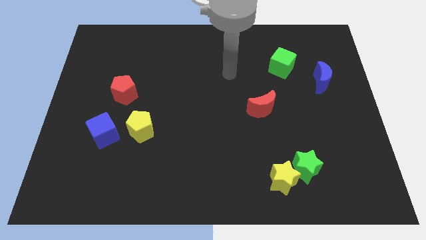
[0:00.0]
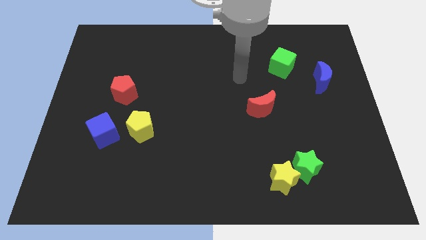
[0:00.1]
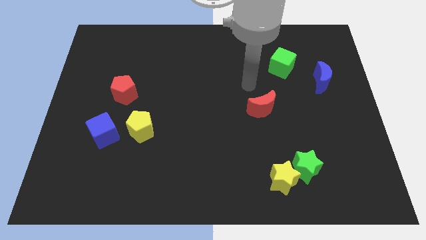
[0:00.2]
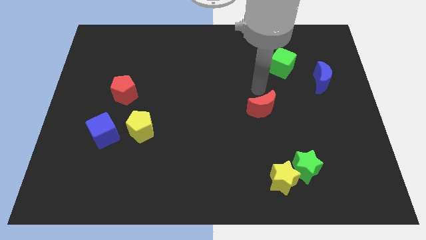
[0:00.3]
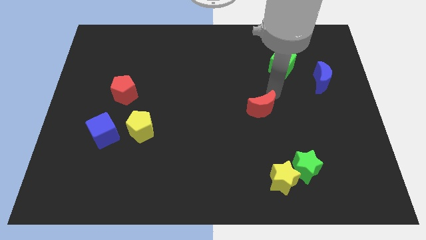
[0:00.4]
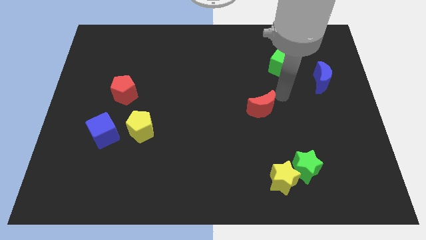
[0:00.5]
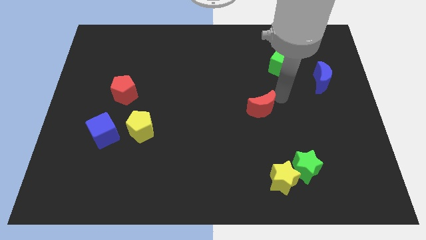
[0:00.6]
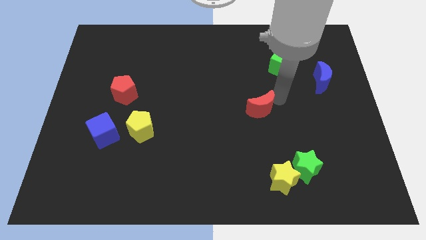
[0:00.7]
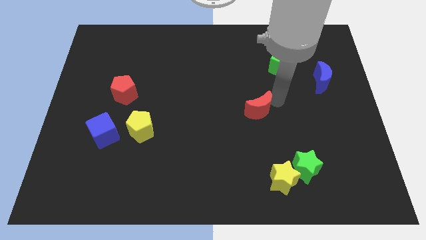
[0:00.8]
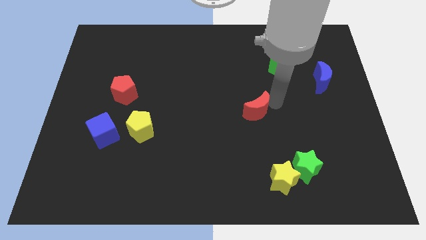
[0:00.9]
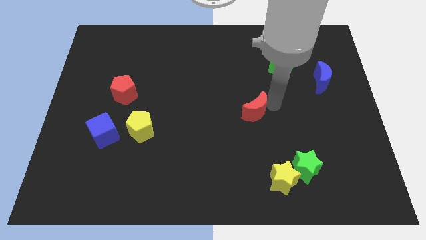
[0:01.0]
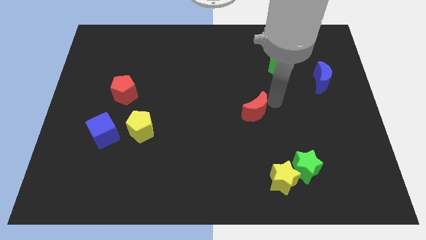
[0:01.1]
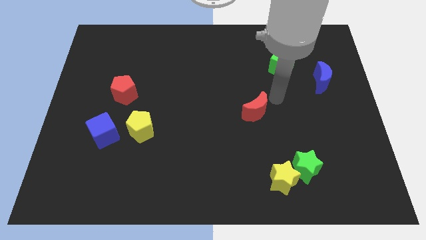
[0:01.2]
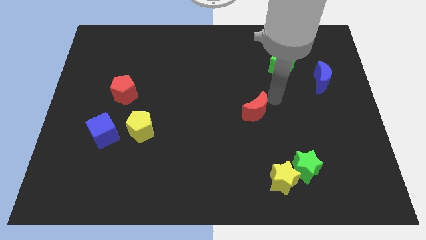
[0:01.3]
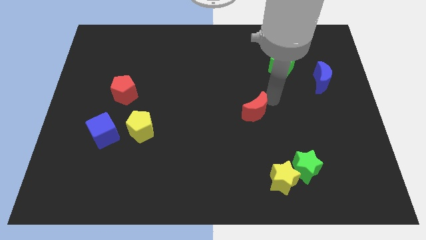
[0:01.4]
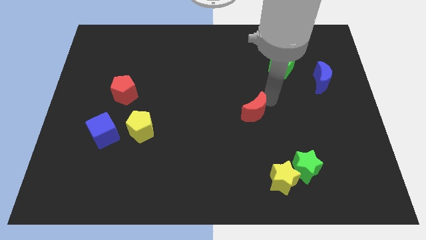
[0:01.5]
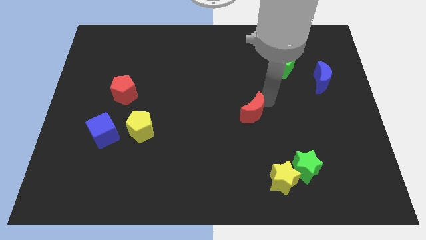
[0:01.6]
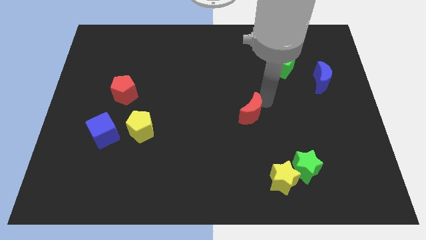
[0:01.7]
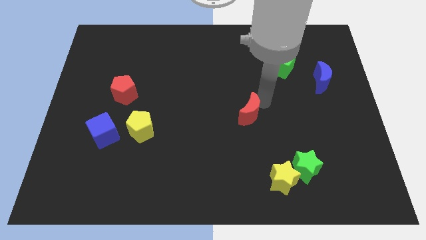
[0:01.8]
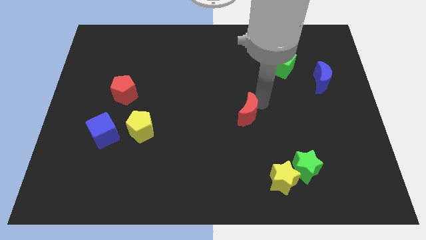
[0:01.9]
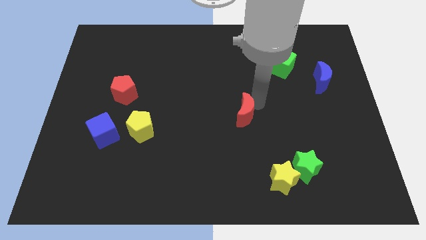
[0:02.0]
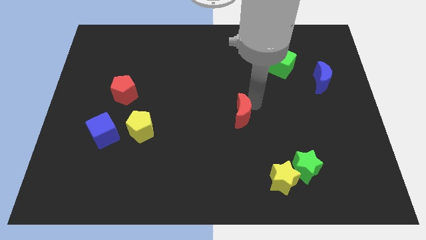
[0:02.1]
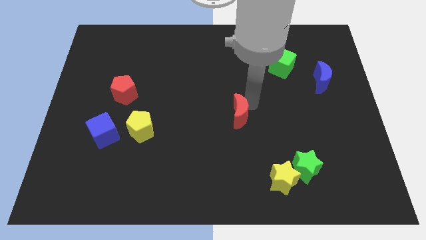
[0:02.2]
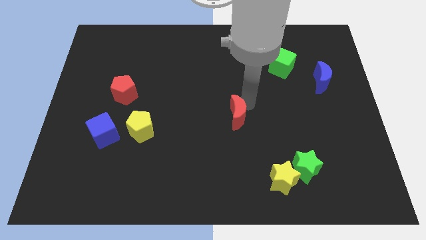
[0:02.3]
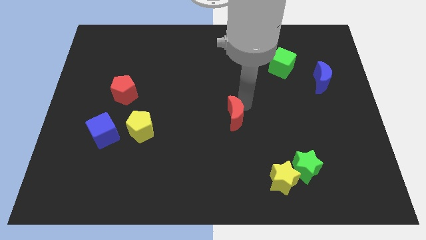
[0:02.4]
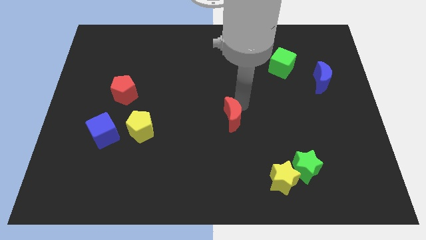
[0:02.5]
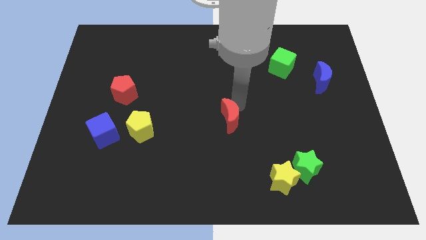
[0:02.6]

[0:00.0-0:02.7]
push the red moon somewhat downwards and then to the left

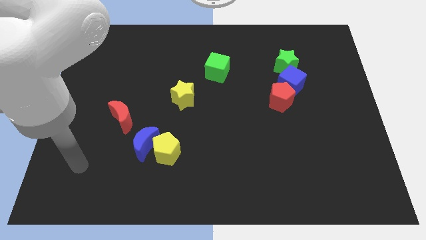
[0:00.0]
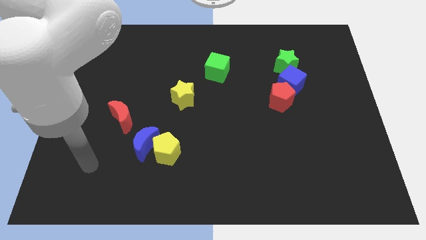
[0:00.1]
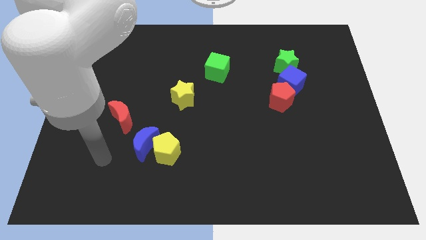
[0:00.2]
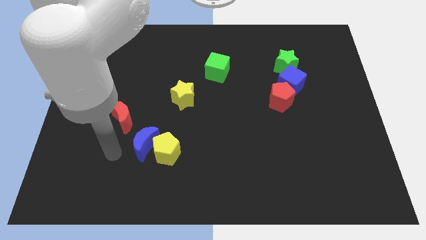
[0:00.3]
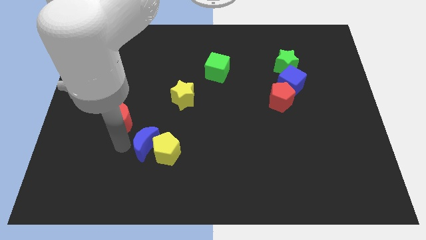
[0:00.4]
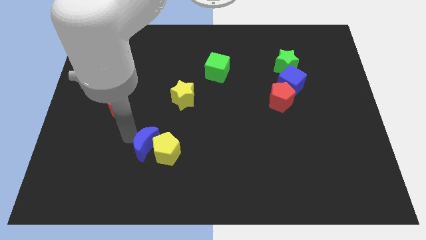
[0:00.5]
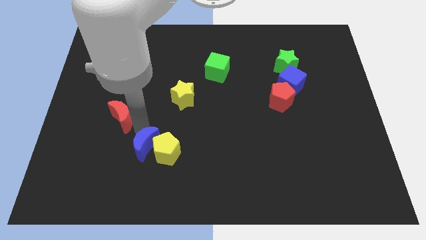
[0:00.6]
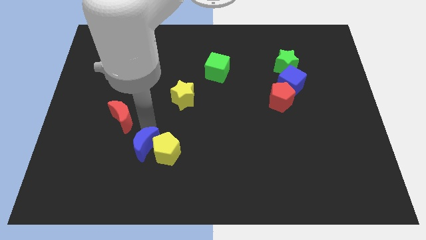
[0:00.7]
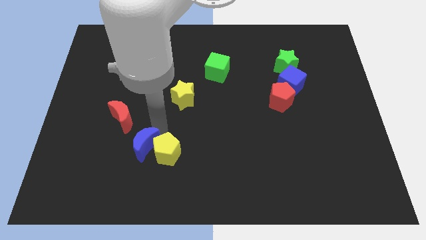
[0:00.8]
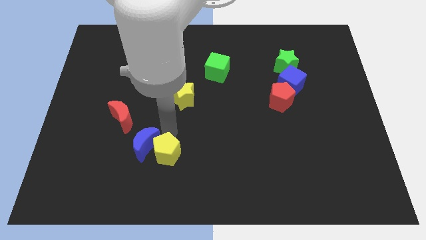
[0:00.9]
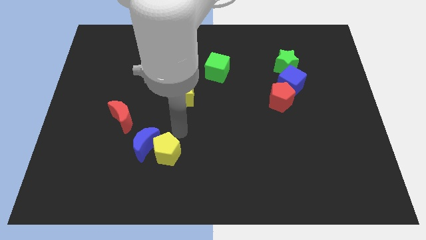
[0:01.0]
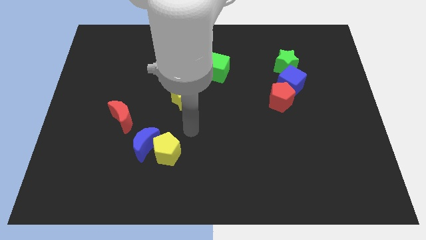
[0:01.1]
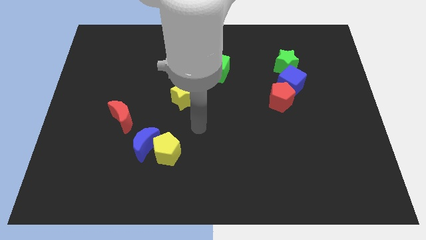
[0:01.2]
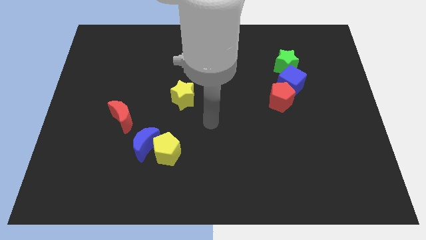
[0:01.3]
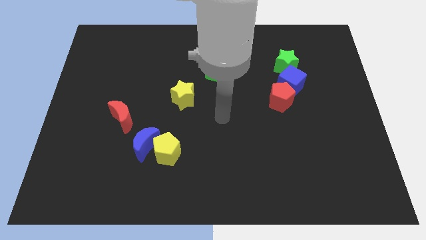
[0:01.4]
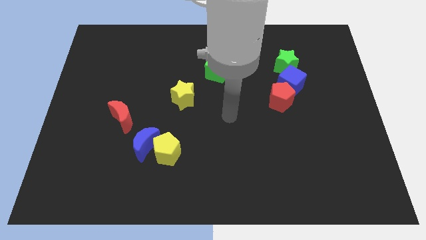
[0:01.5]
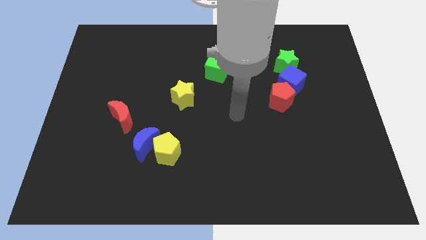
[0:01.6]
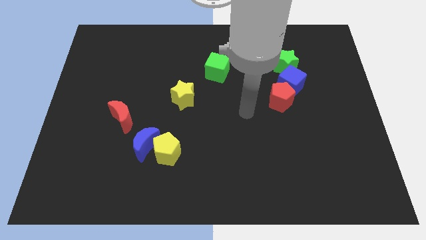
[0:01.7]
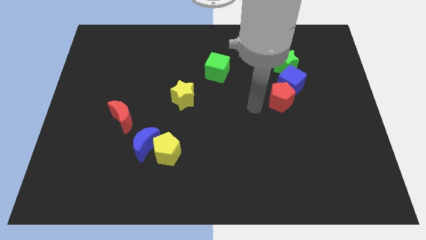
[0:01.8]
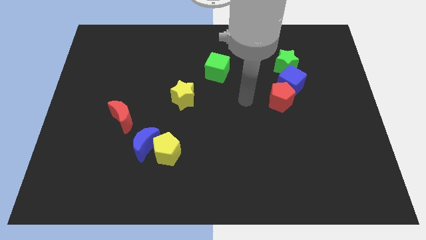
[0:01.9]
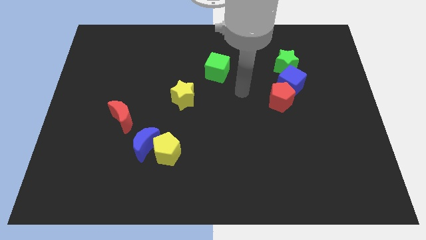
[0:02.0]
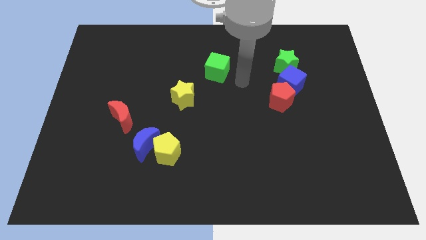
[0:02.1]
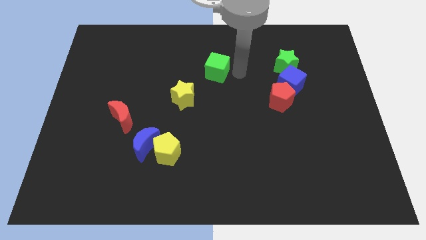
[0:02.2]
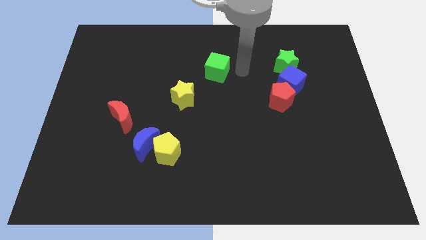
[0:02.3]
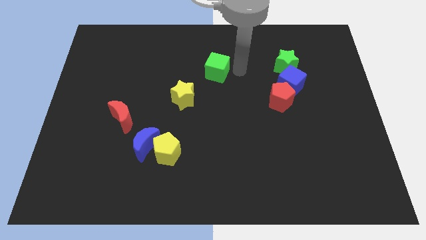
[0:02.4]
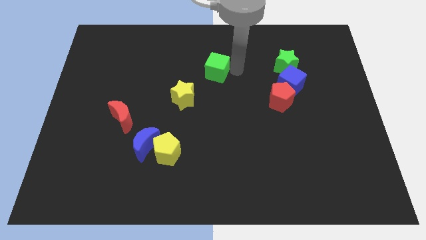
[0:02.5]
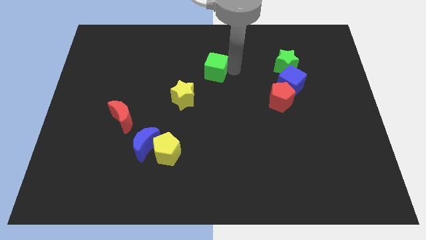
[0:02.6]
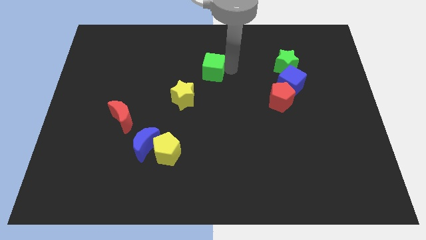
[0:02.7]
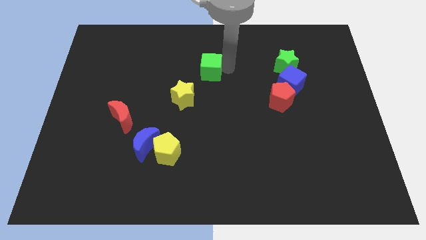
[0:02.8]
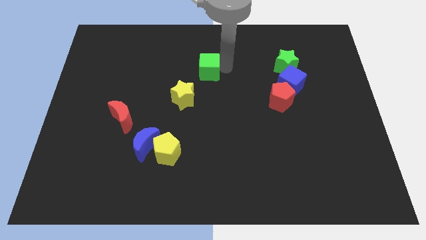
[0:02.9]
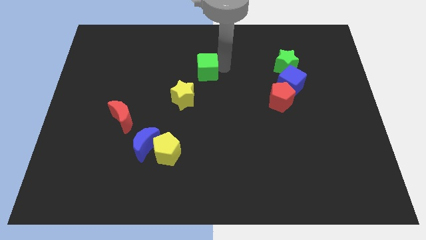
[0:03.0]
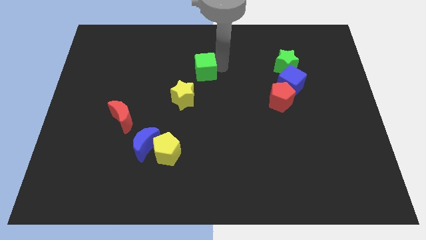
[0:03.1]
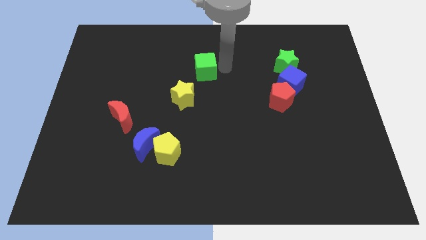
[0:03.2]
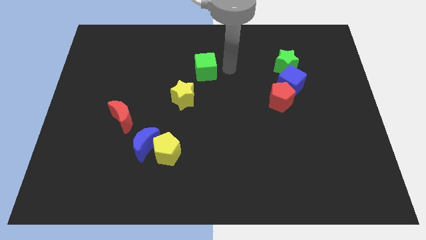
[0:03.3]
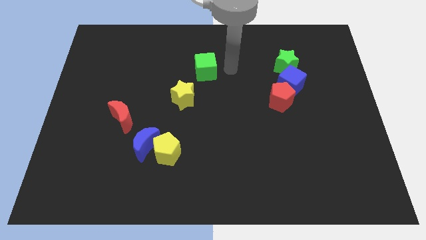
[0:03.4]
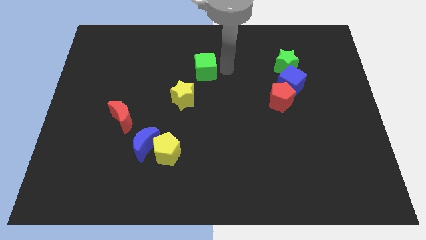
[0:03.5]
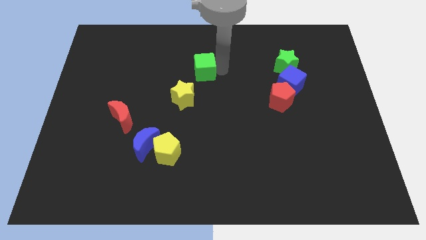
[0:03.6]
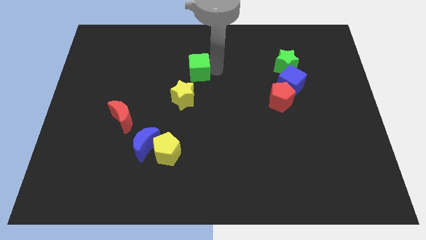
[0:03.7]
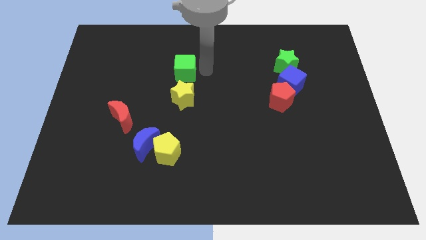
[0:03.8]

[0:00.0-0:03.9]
slightly slide the green cube to the left

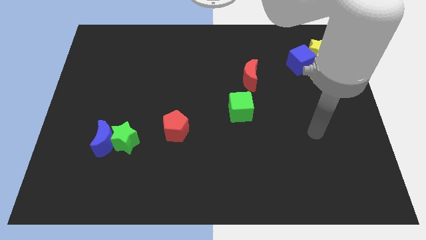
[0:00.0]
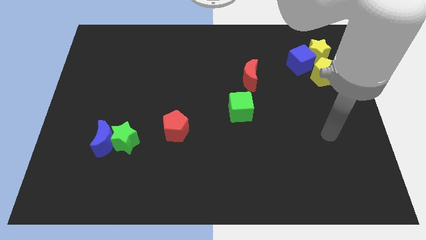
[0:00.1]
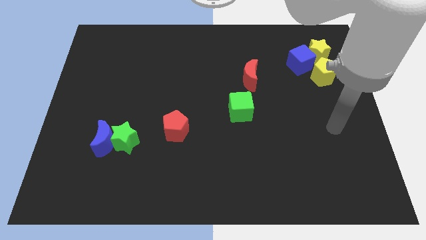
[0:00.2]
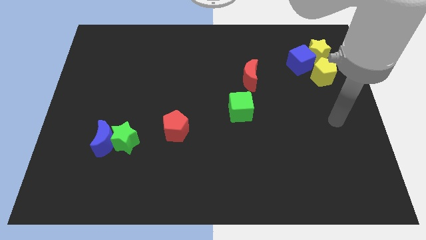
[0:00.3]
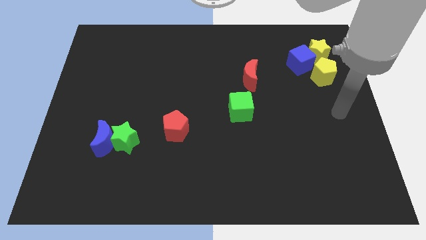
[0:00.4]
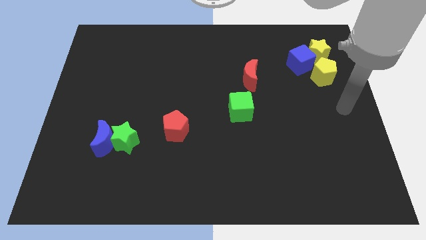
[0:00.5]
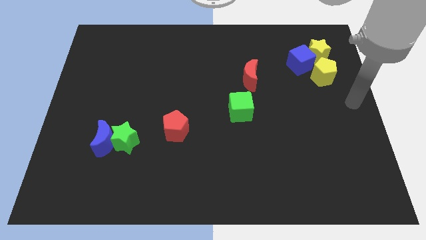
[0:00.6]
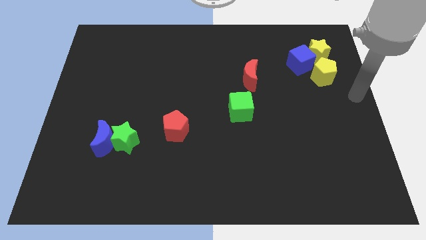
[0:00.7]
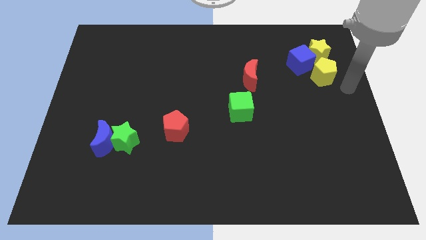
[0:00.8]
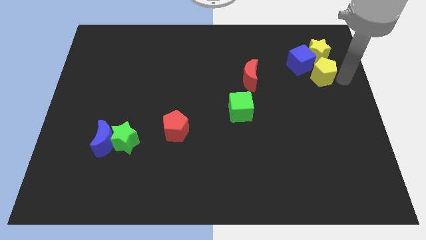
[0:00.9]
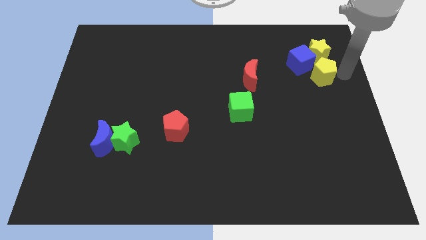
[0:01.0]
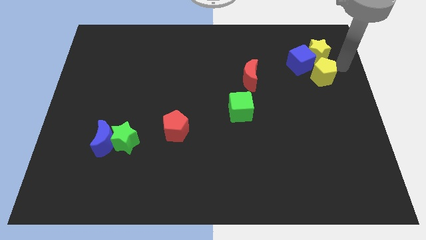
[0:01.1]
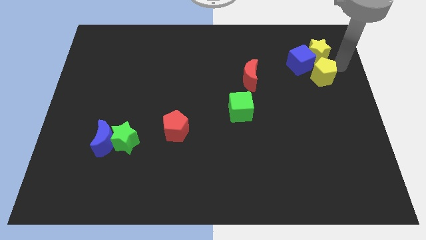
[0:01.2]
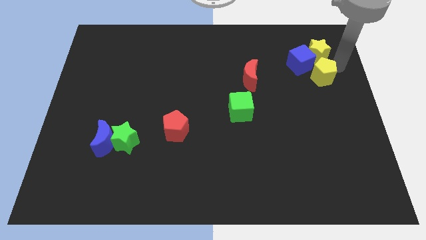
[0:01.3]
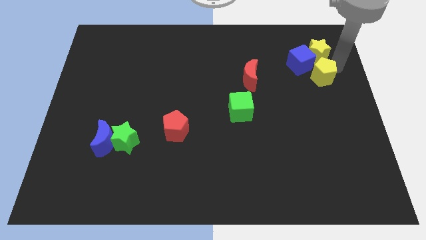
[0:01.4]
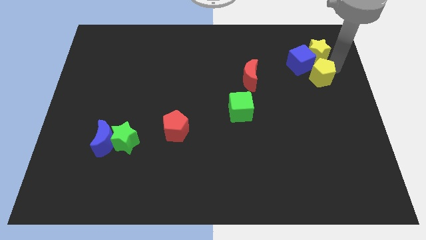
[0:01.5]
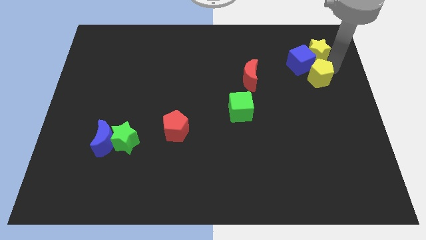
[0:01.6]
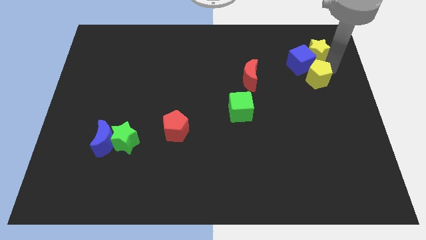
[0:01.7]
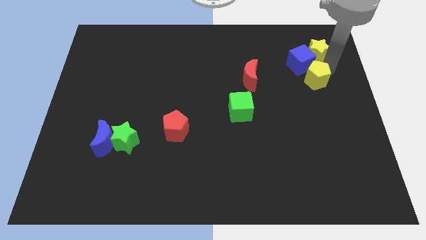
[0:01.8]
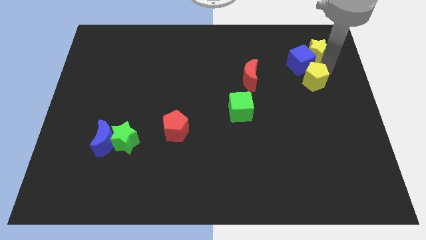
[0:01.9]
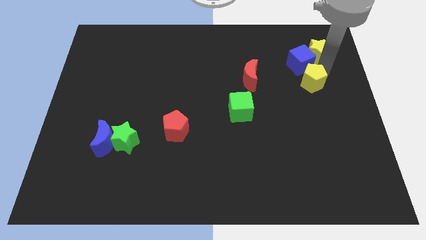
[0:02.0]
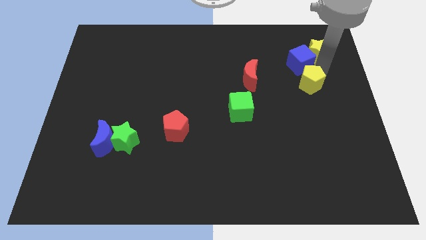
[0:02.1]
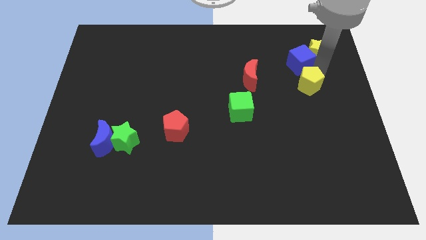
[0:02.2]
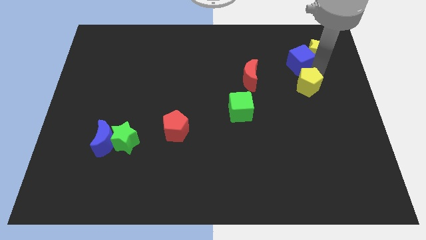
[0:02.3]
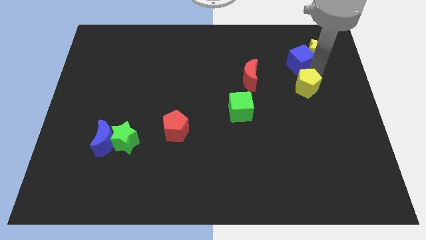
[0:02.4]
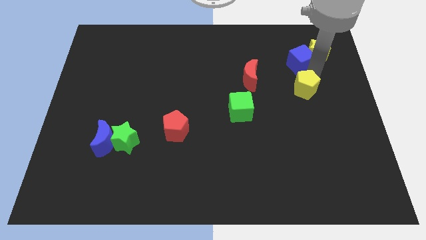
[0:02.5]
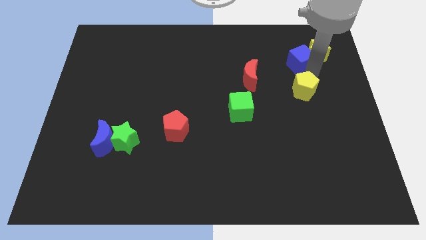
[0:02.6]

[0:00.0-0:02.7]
slide the yellow pentagon diagonally downwards and left somewhat
